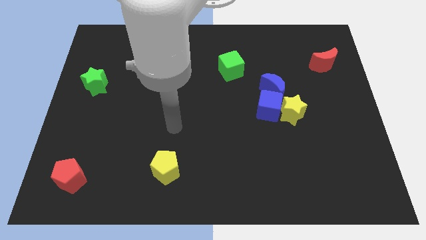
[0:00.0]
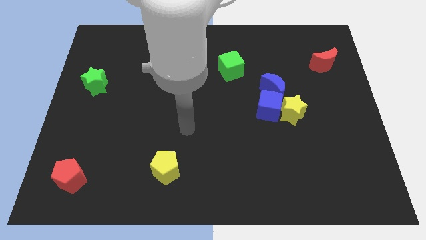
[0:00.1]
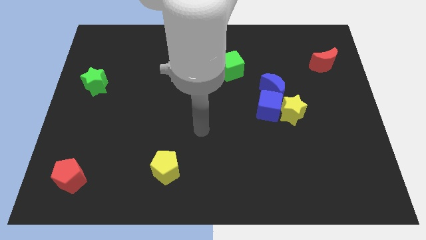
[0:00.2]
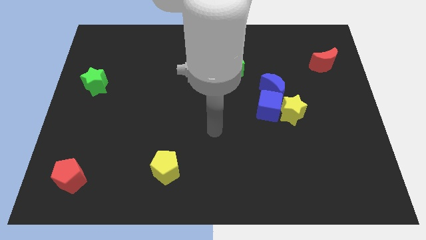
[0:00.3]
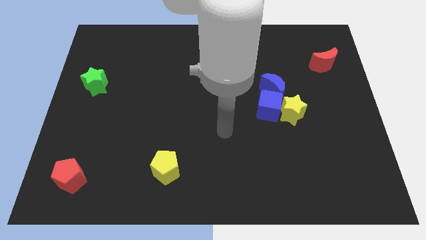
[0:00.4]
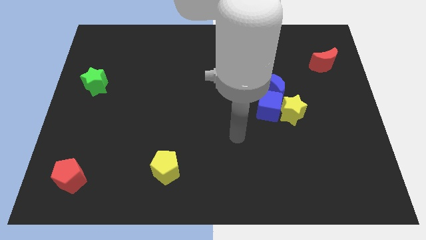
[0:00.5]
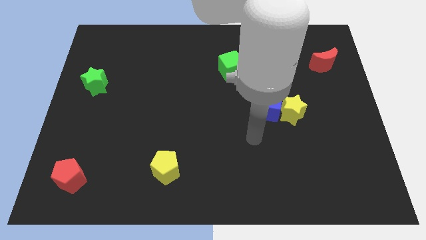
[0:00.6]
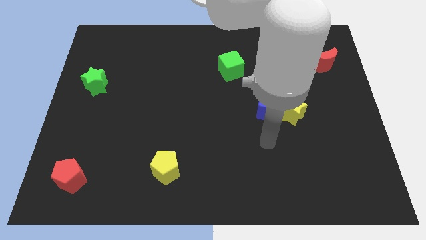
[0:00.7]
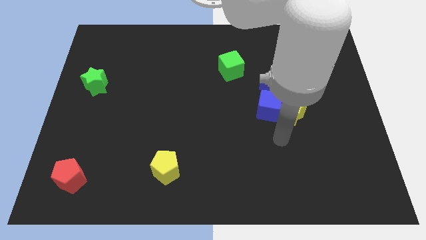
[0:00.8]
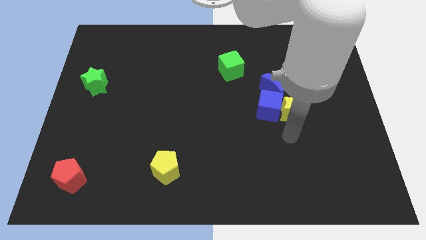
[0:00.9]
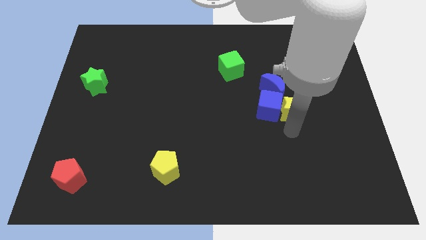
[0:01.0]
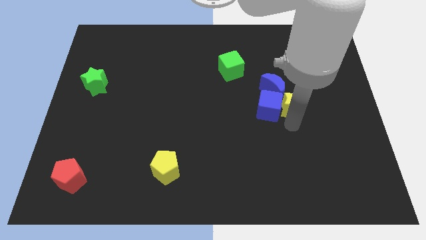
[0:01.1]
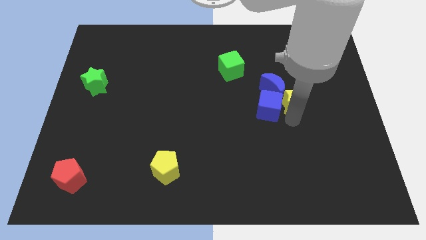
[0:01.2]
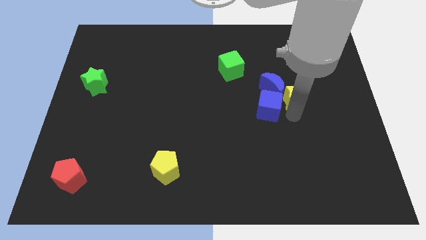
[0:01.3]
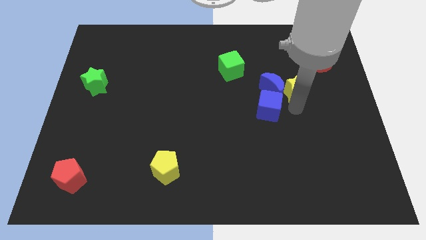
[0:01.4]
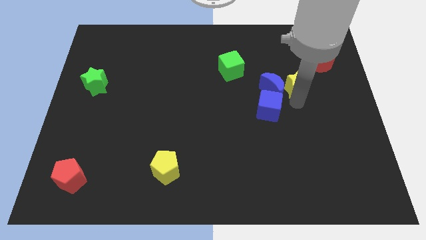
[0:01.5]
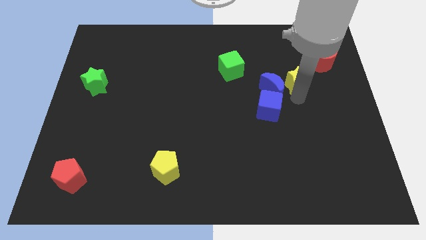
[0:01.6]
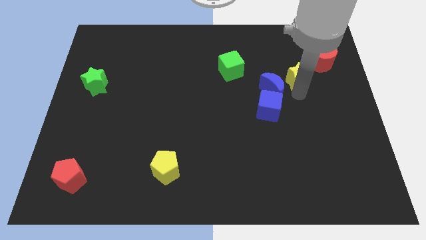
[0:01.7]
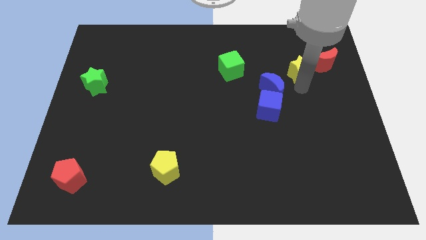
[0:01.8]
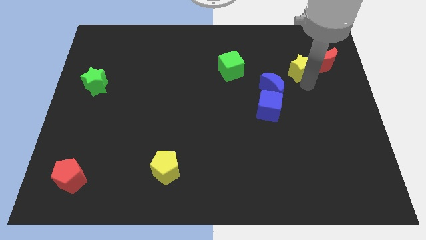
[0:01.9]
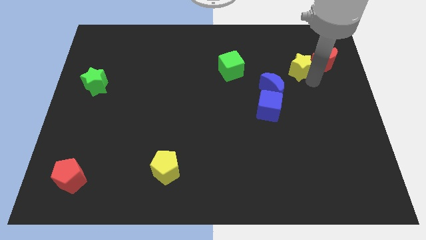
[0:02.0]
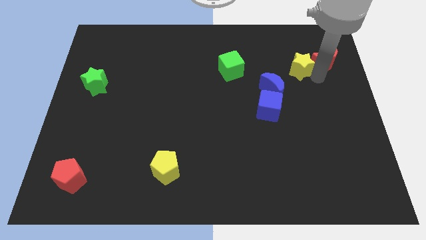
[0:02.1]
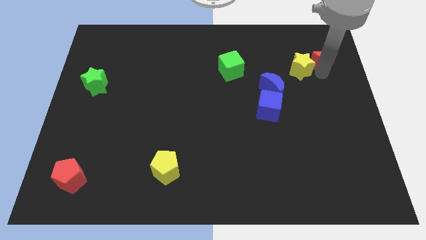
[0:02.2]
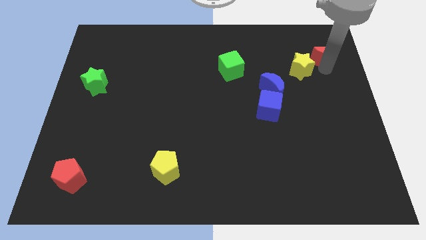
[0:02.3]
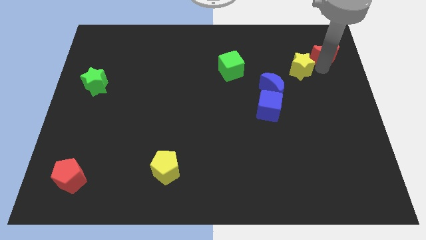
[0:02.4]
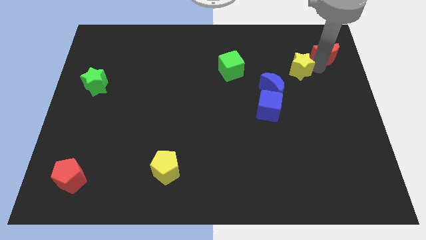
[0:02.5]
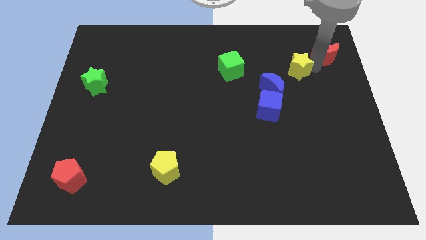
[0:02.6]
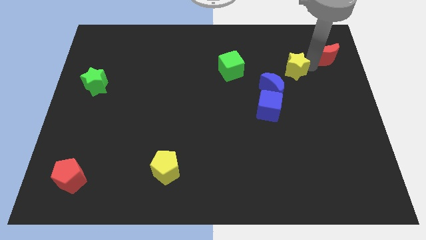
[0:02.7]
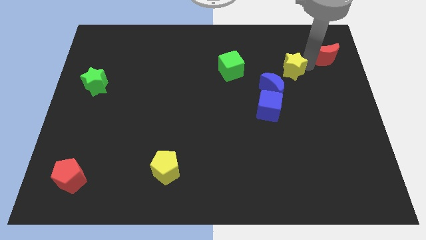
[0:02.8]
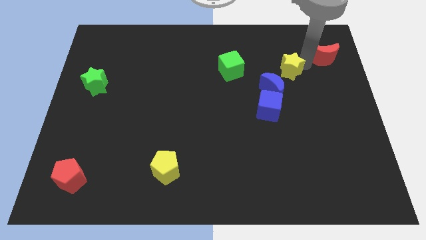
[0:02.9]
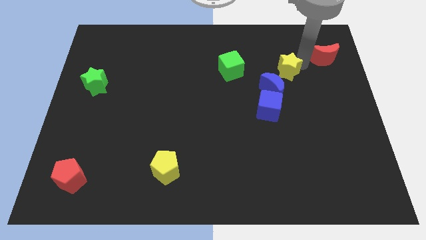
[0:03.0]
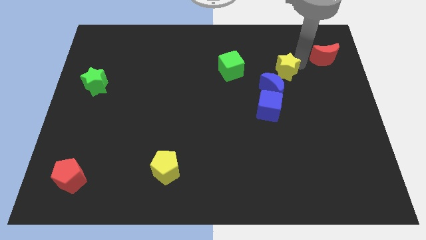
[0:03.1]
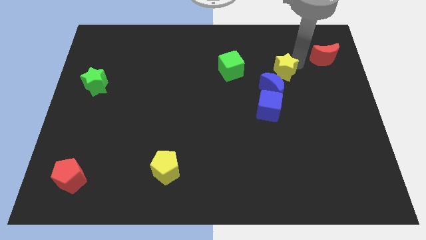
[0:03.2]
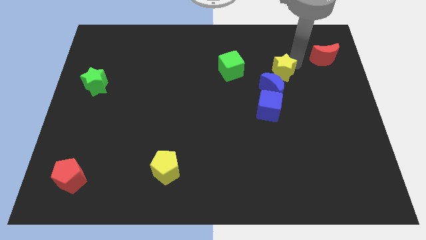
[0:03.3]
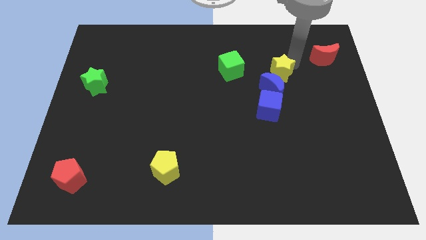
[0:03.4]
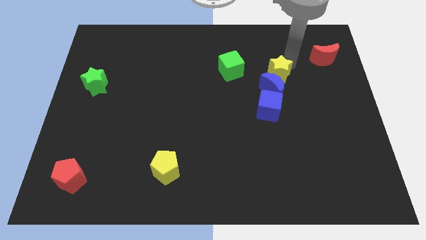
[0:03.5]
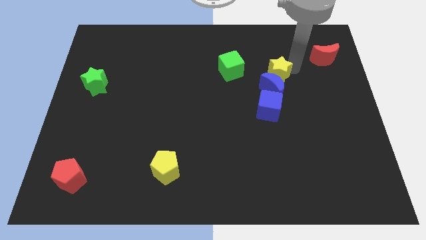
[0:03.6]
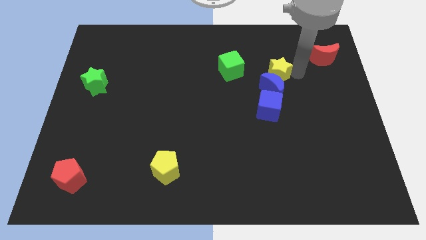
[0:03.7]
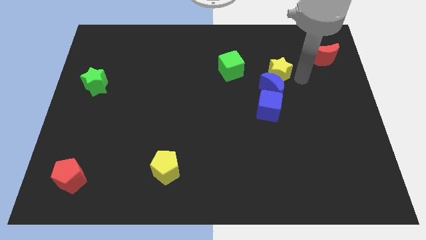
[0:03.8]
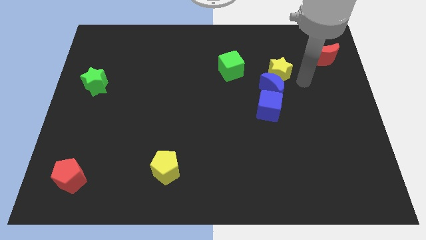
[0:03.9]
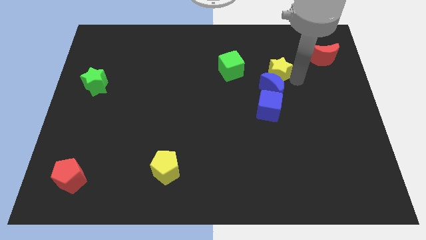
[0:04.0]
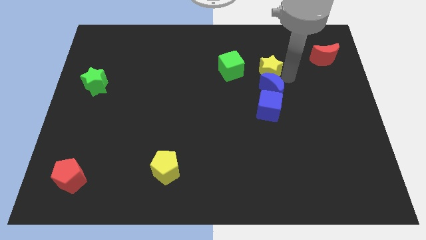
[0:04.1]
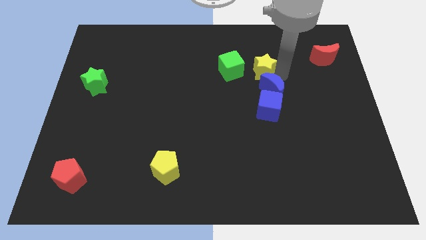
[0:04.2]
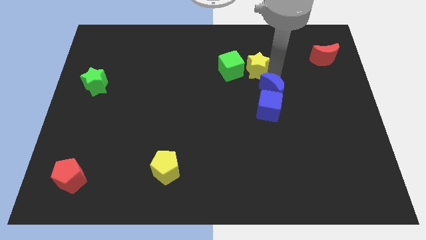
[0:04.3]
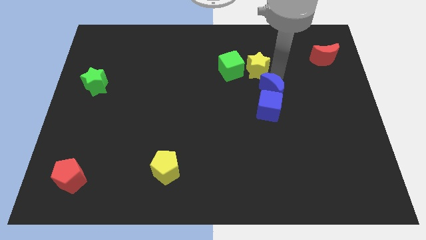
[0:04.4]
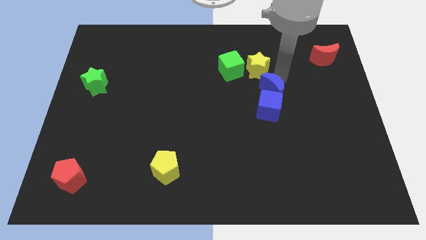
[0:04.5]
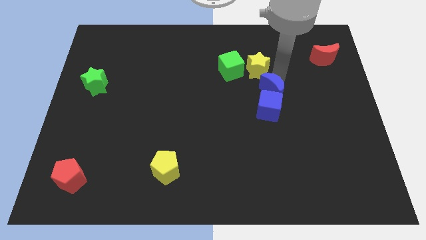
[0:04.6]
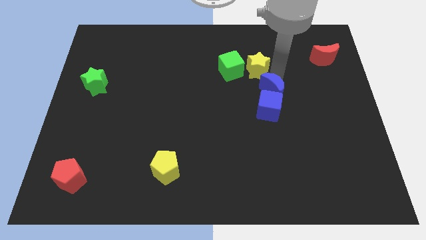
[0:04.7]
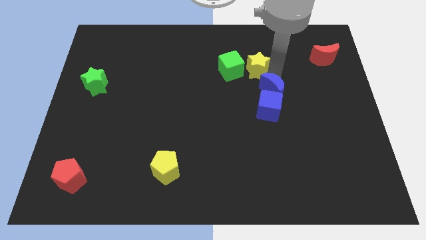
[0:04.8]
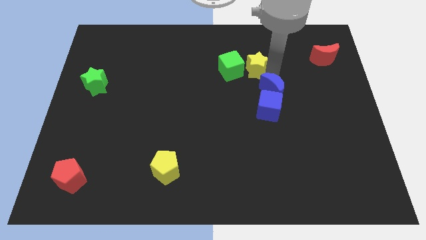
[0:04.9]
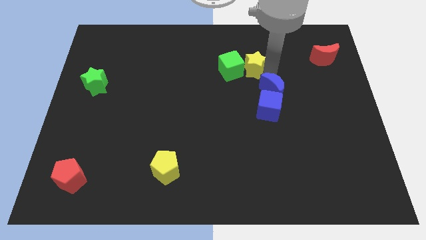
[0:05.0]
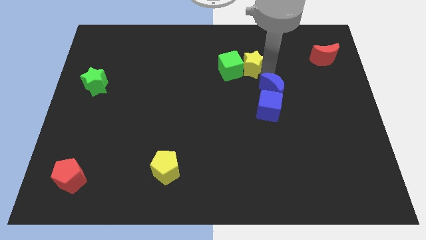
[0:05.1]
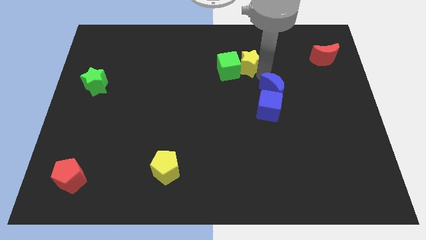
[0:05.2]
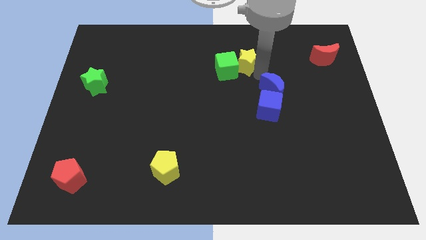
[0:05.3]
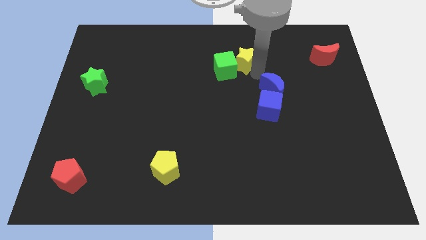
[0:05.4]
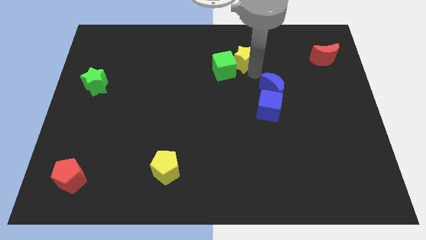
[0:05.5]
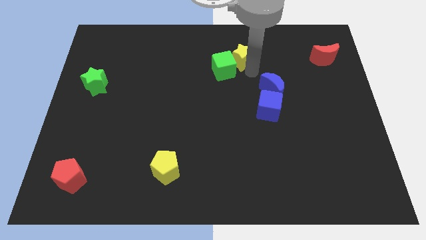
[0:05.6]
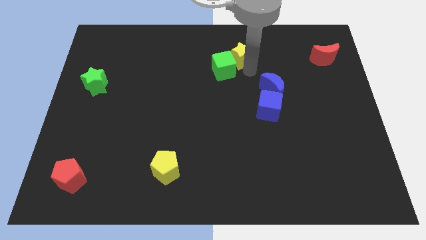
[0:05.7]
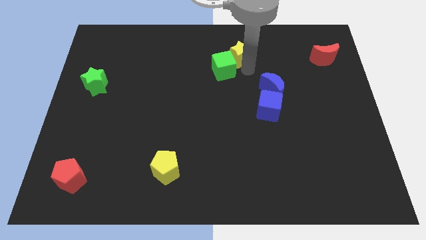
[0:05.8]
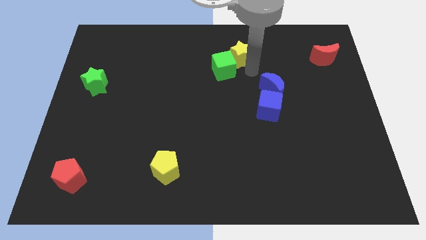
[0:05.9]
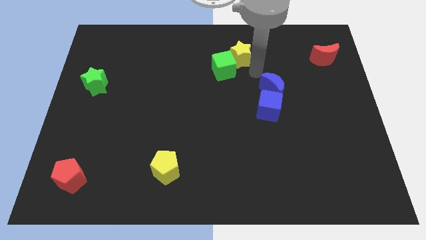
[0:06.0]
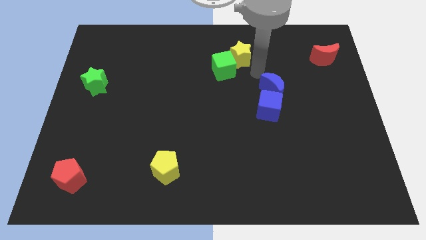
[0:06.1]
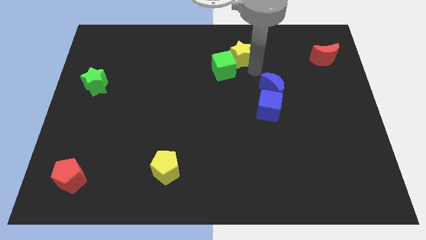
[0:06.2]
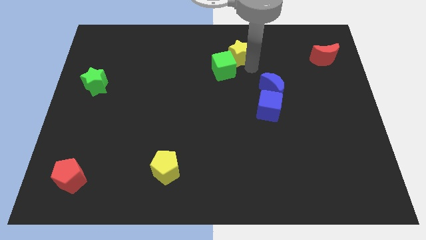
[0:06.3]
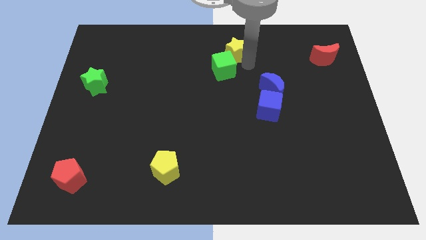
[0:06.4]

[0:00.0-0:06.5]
slide the yellow star to the top side
